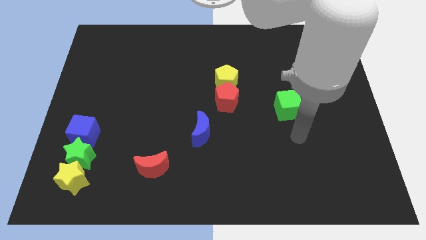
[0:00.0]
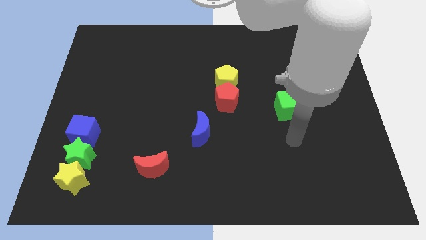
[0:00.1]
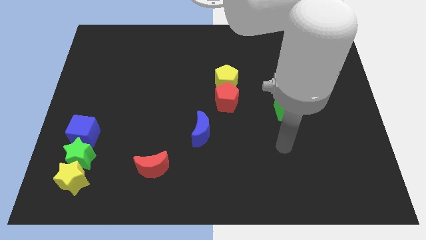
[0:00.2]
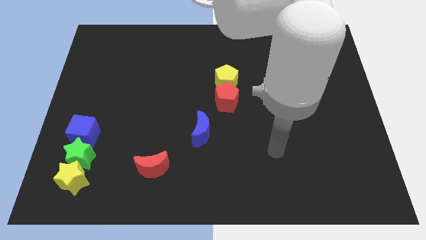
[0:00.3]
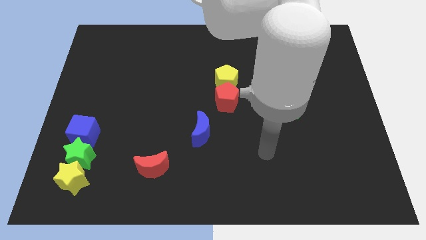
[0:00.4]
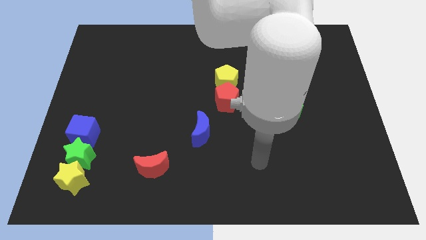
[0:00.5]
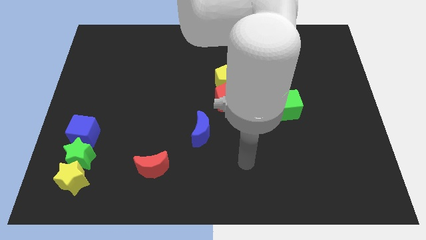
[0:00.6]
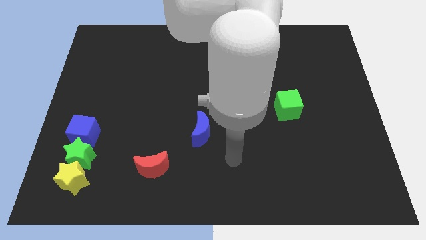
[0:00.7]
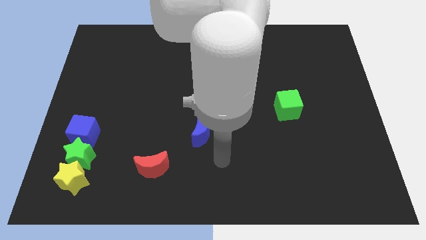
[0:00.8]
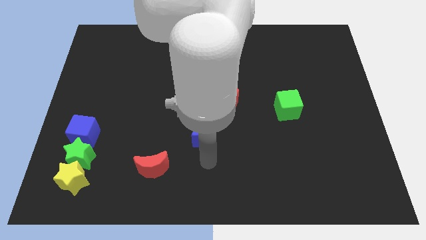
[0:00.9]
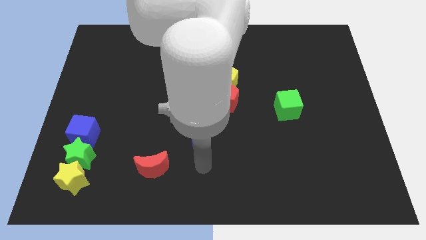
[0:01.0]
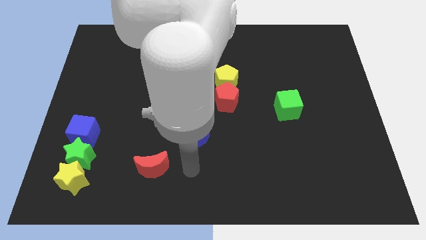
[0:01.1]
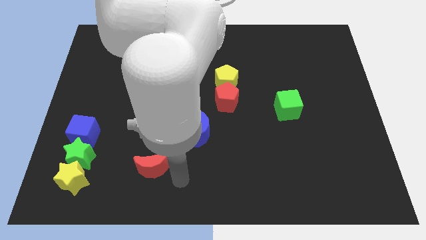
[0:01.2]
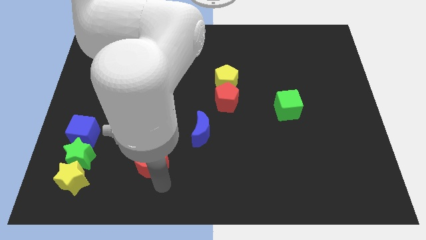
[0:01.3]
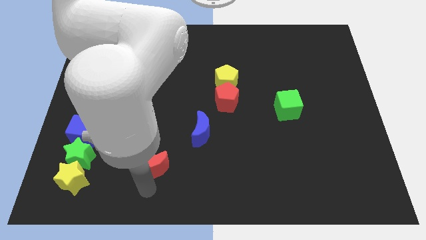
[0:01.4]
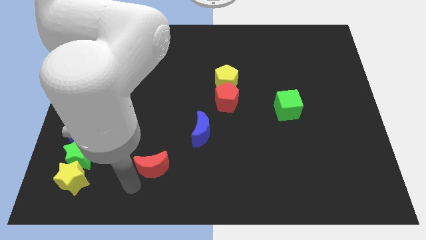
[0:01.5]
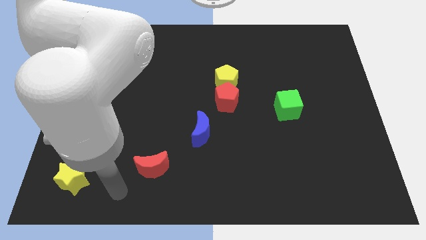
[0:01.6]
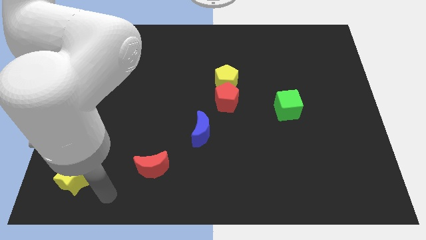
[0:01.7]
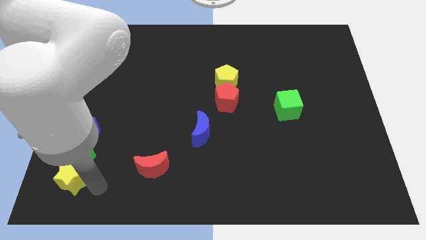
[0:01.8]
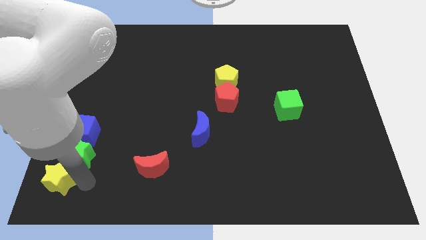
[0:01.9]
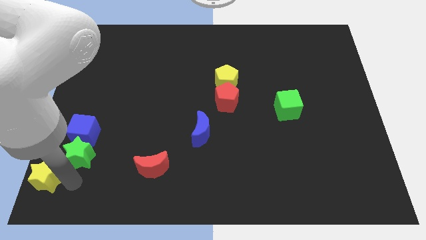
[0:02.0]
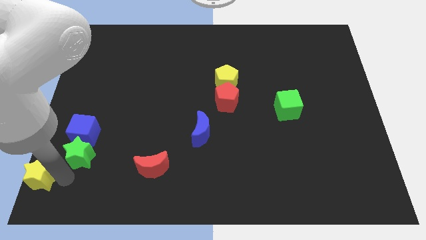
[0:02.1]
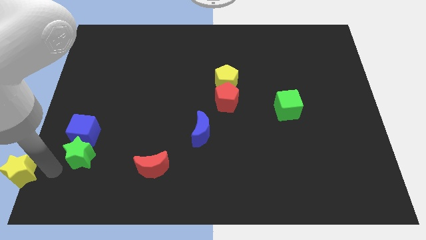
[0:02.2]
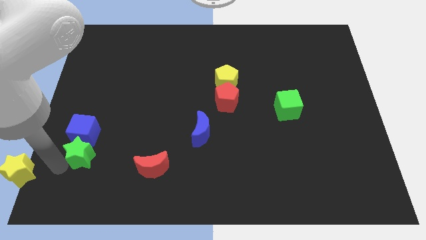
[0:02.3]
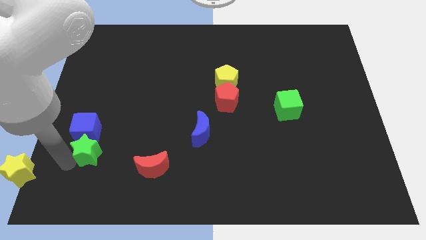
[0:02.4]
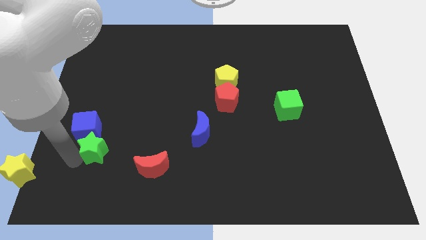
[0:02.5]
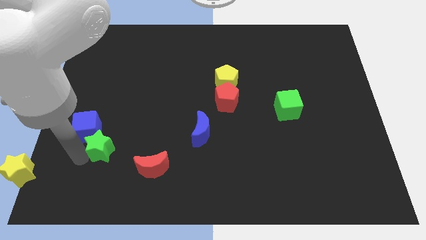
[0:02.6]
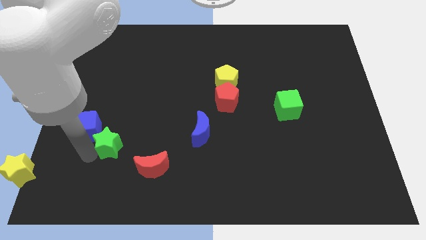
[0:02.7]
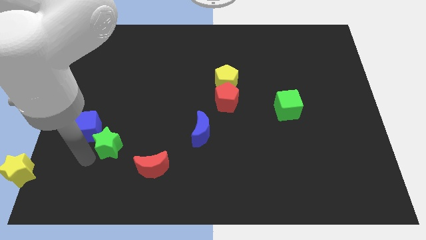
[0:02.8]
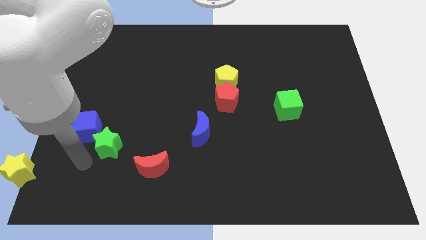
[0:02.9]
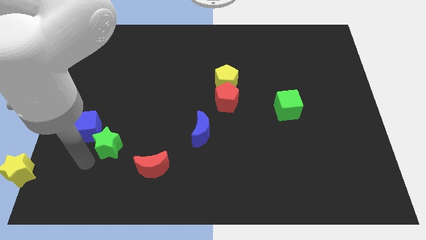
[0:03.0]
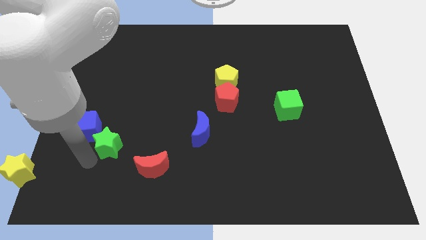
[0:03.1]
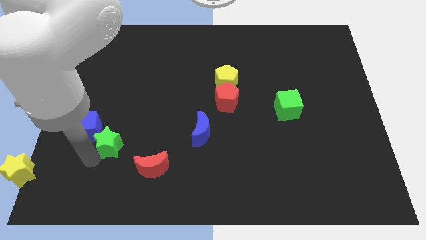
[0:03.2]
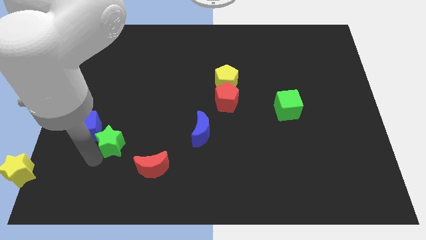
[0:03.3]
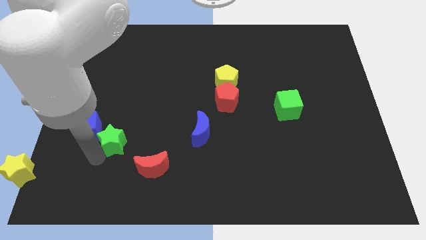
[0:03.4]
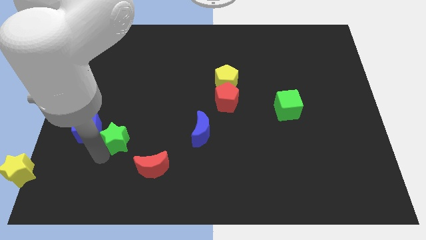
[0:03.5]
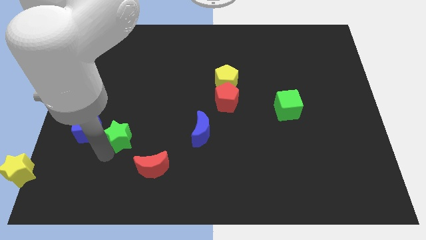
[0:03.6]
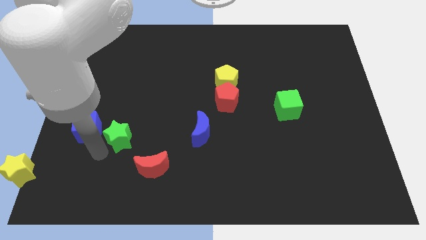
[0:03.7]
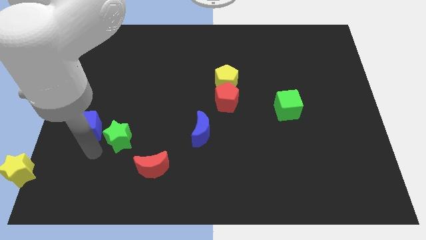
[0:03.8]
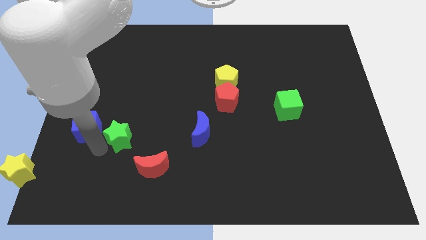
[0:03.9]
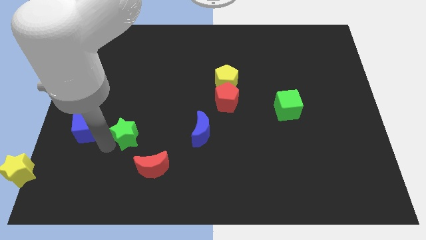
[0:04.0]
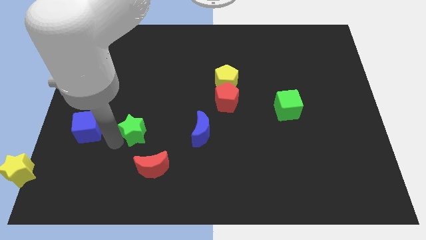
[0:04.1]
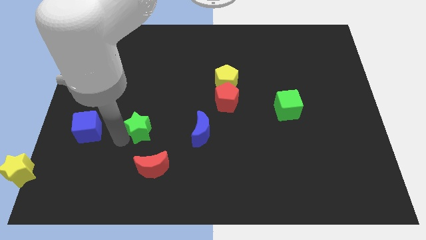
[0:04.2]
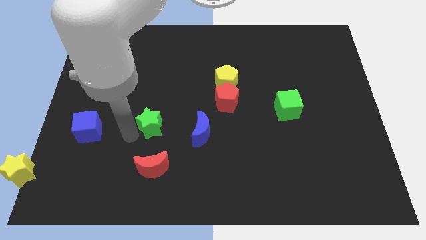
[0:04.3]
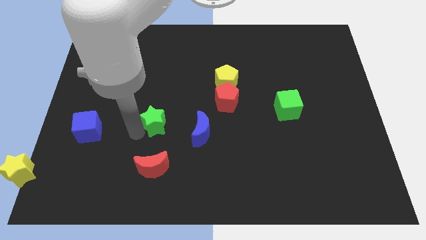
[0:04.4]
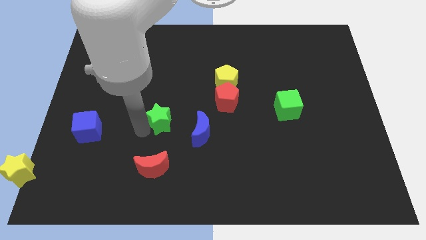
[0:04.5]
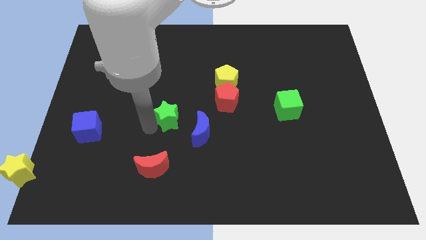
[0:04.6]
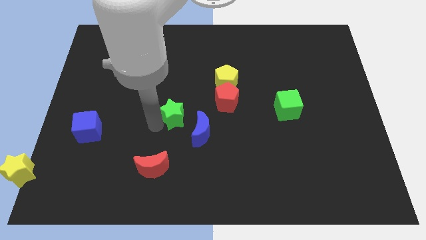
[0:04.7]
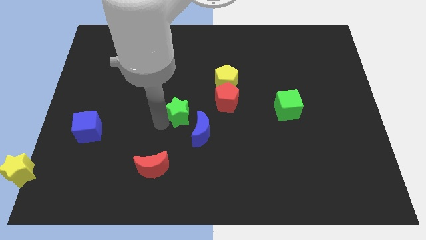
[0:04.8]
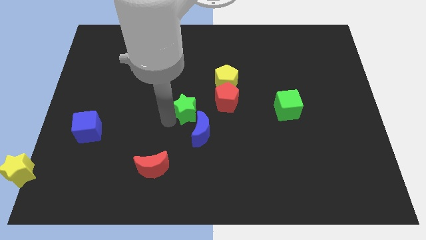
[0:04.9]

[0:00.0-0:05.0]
push the green star diagonally down and to the left of the yellow pentagon

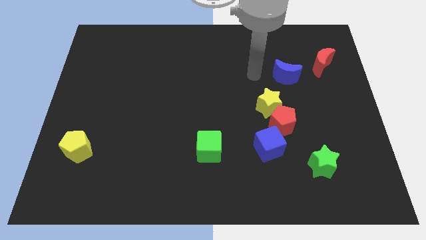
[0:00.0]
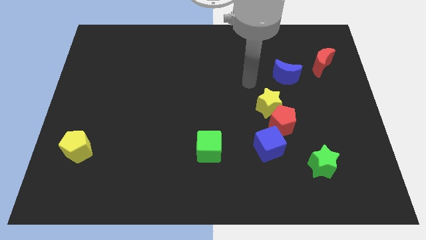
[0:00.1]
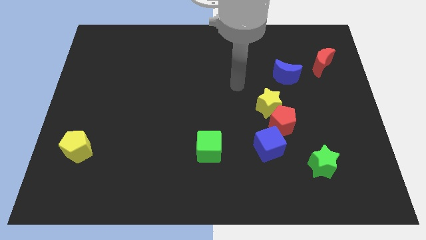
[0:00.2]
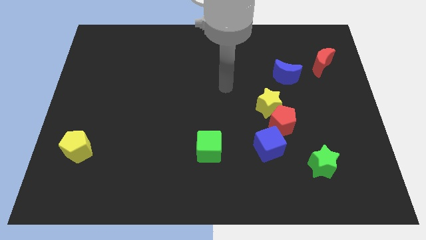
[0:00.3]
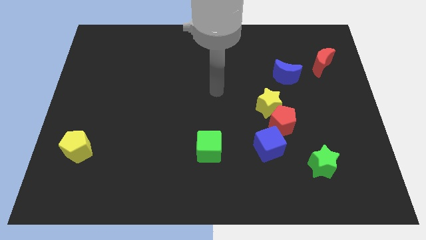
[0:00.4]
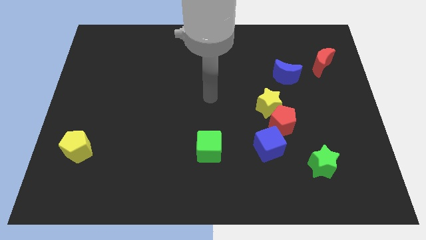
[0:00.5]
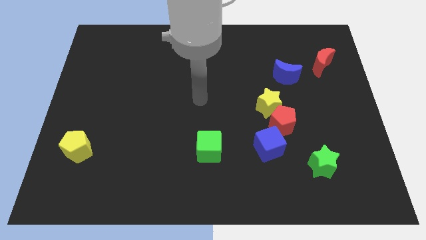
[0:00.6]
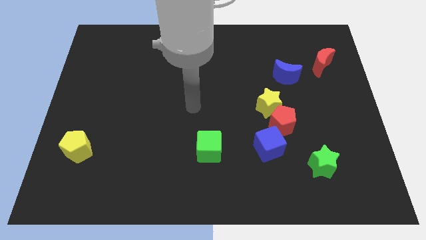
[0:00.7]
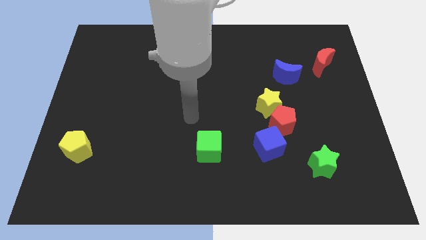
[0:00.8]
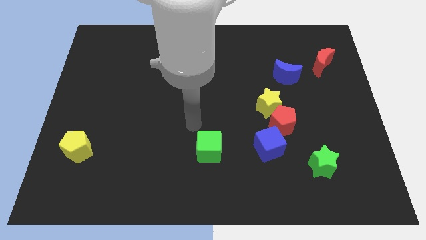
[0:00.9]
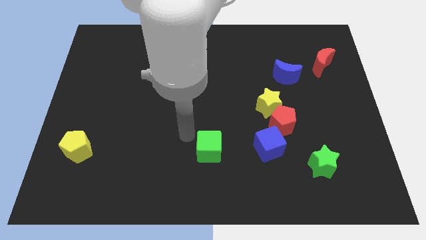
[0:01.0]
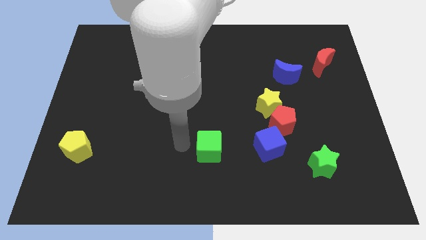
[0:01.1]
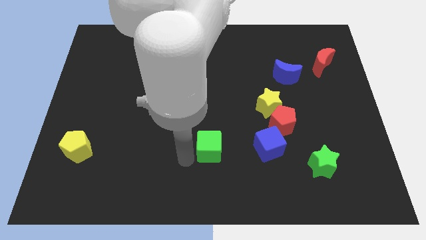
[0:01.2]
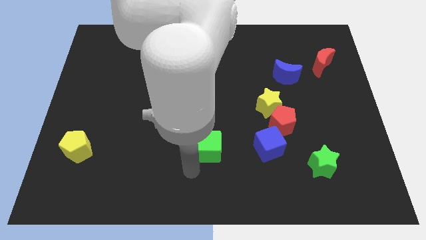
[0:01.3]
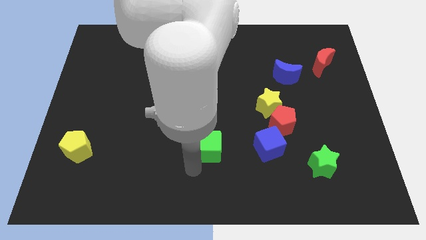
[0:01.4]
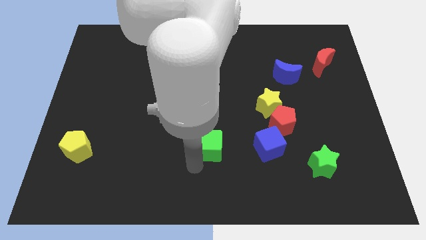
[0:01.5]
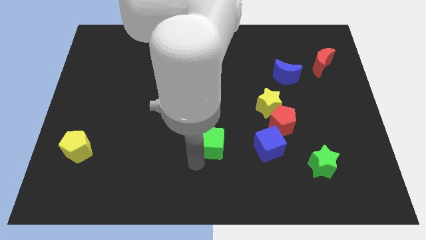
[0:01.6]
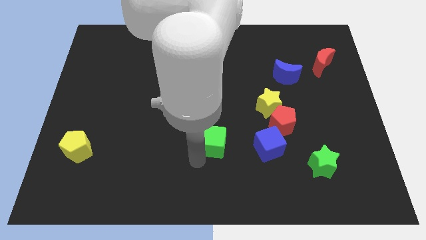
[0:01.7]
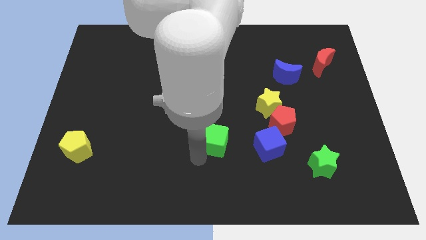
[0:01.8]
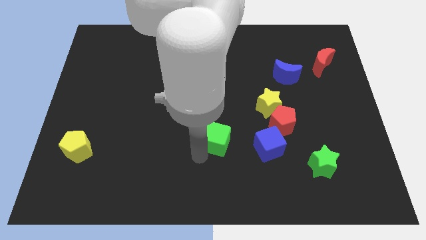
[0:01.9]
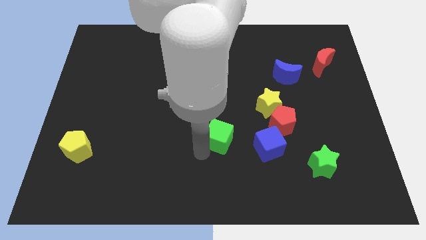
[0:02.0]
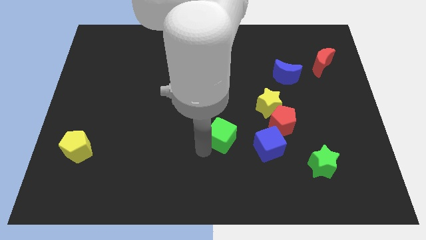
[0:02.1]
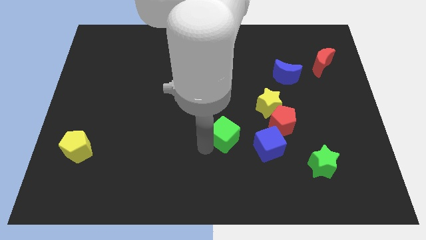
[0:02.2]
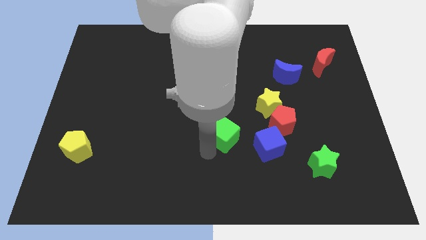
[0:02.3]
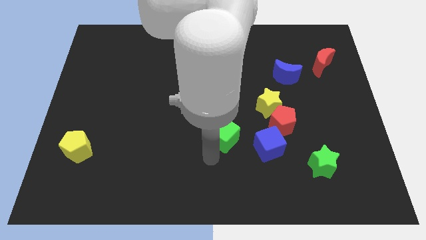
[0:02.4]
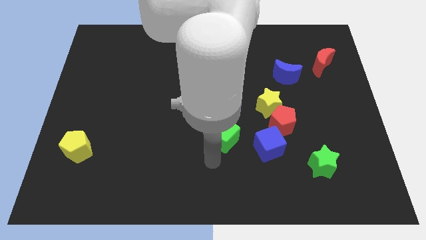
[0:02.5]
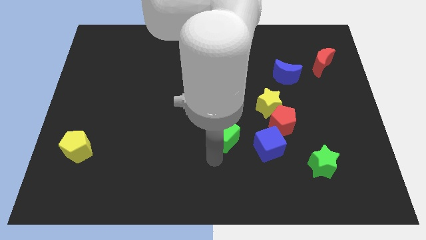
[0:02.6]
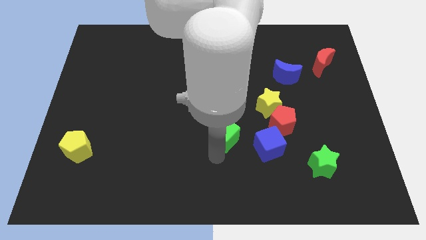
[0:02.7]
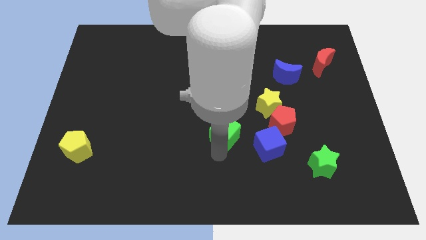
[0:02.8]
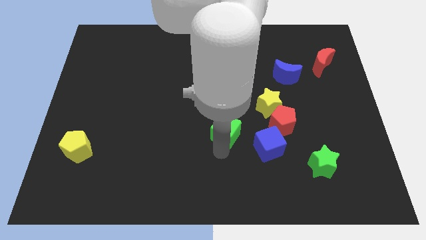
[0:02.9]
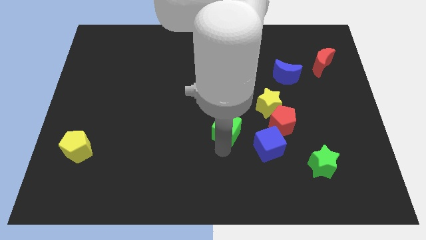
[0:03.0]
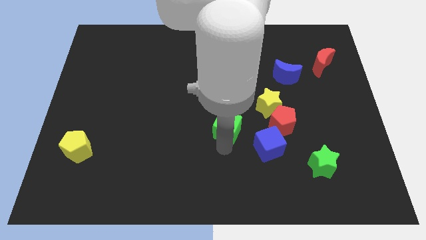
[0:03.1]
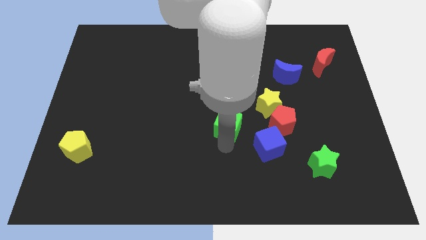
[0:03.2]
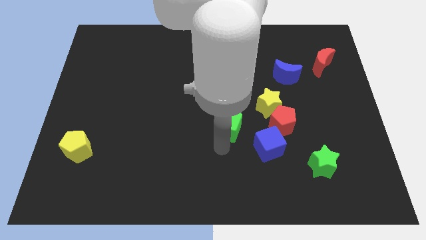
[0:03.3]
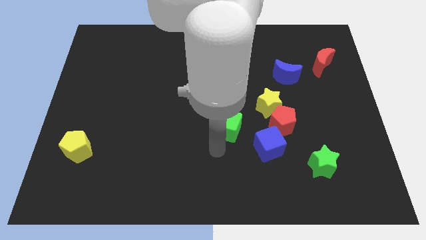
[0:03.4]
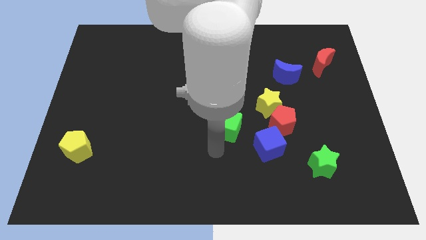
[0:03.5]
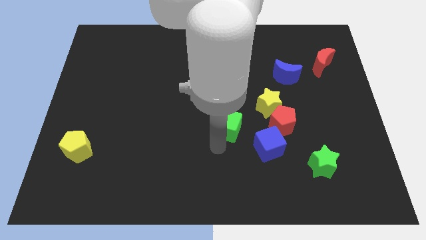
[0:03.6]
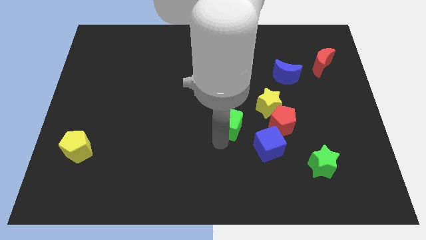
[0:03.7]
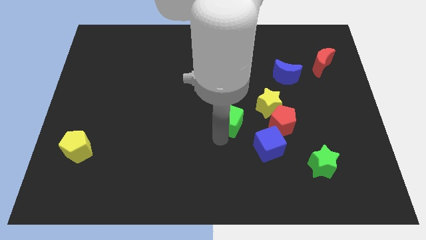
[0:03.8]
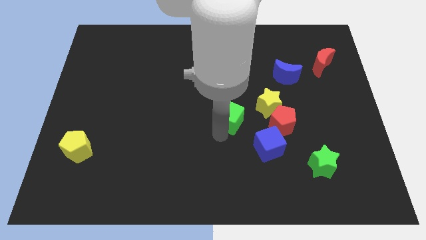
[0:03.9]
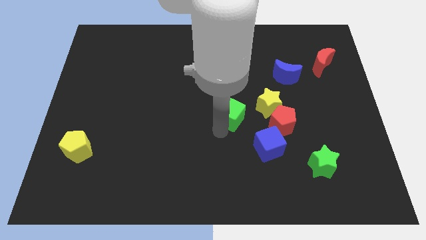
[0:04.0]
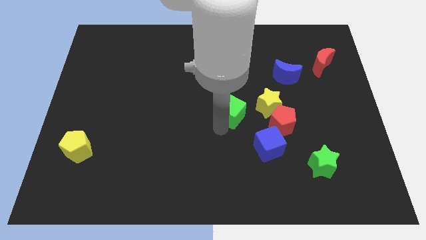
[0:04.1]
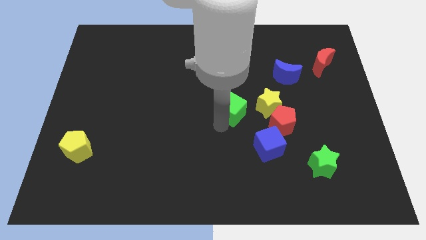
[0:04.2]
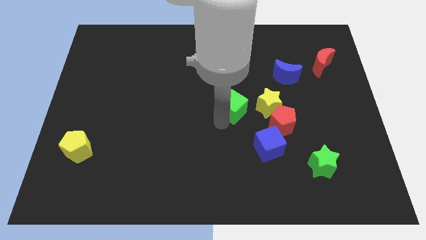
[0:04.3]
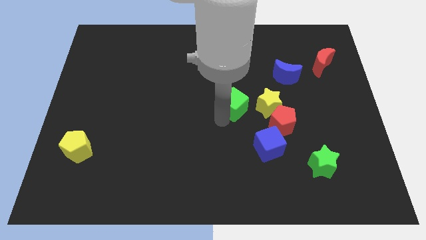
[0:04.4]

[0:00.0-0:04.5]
push the green cube to the top left side of the red pentagon
